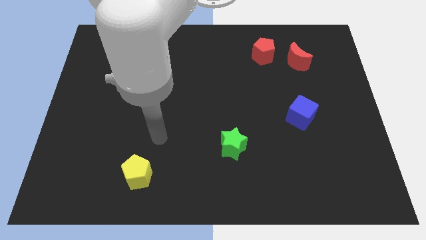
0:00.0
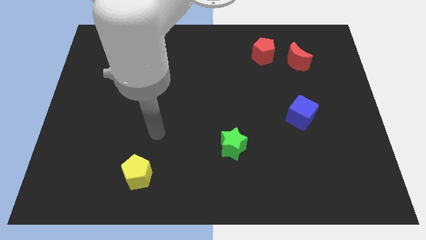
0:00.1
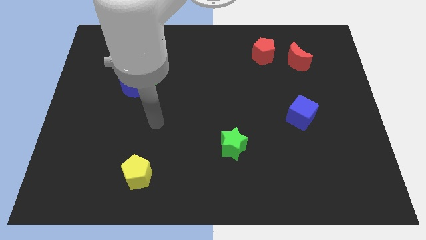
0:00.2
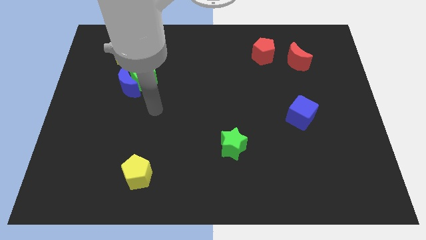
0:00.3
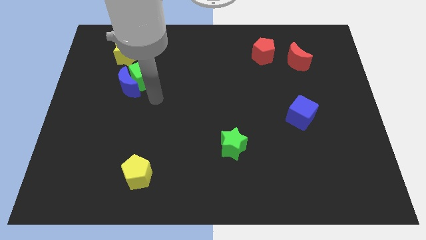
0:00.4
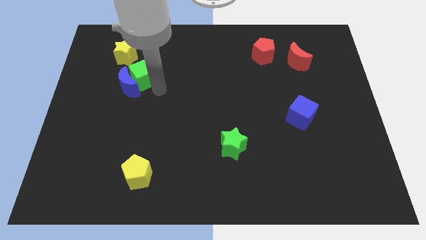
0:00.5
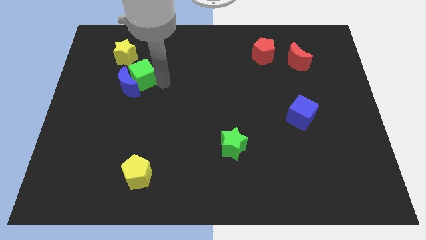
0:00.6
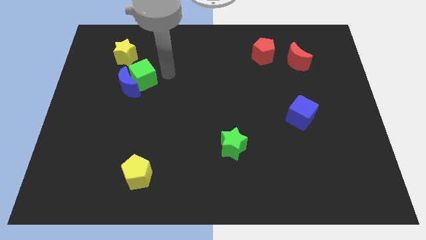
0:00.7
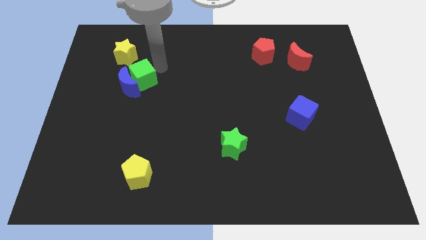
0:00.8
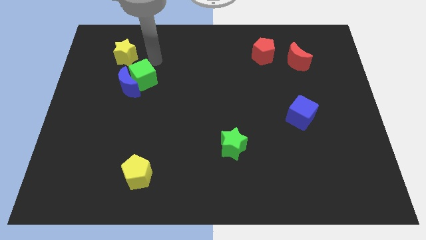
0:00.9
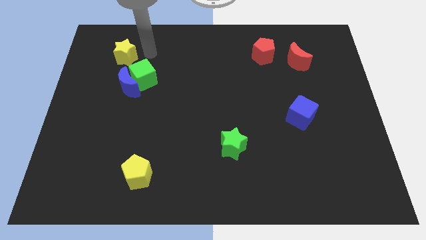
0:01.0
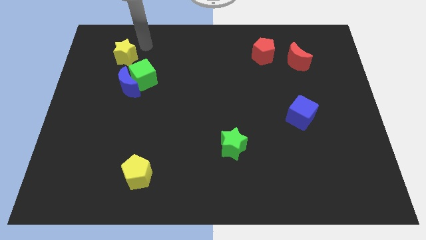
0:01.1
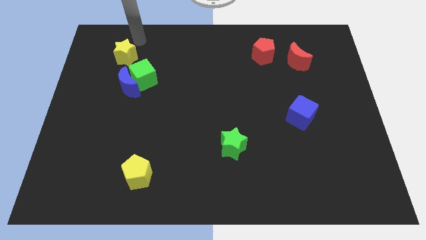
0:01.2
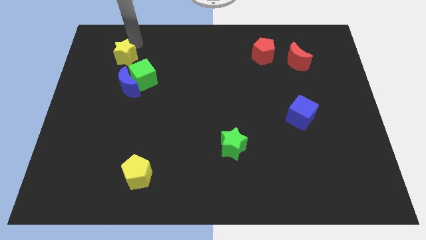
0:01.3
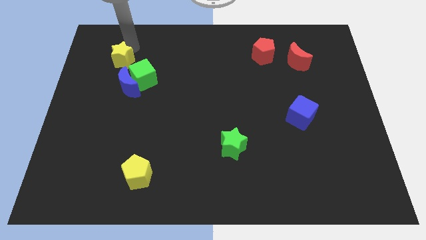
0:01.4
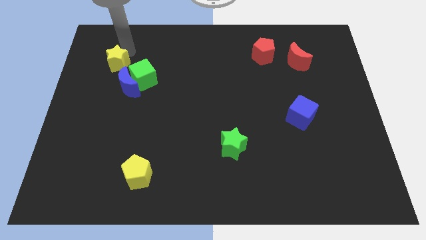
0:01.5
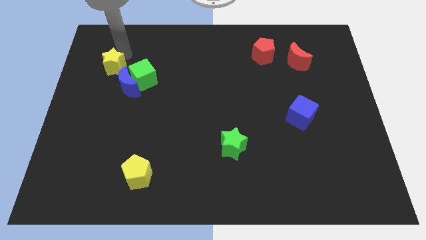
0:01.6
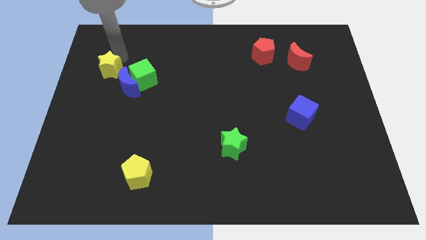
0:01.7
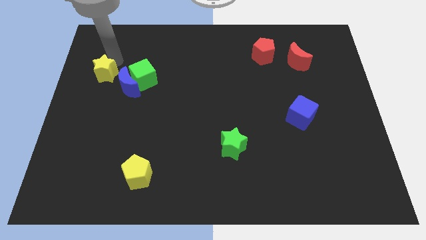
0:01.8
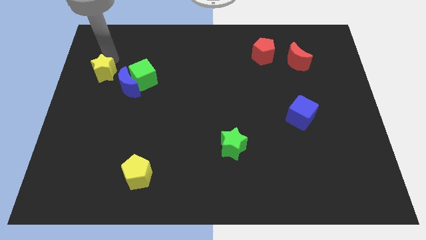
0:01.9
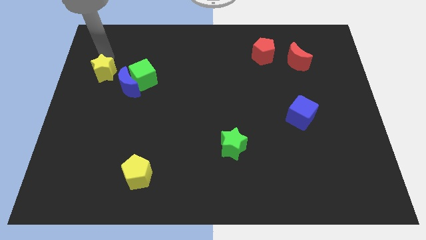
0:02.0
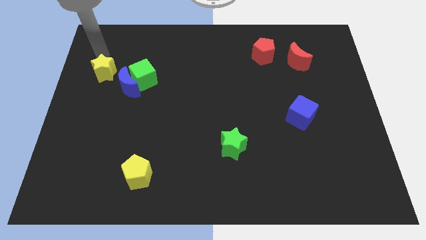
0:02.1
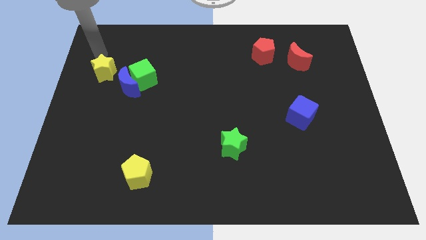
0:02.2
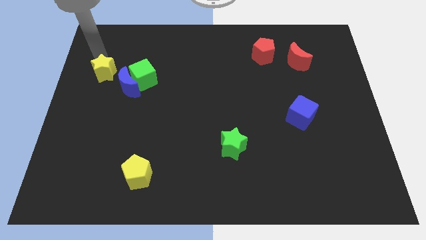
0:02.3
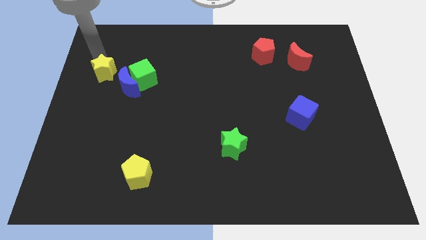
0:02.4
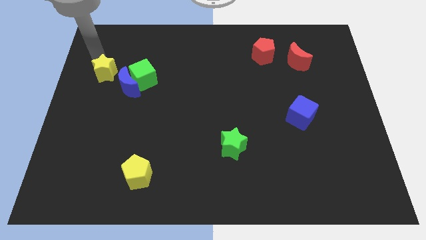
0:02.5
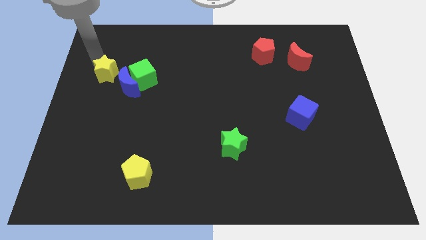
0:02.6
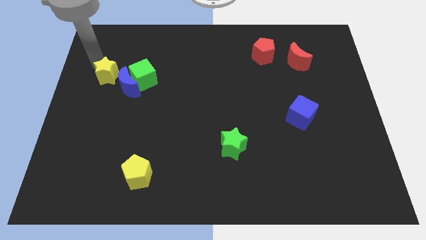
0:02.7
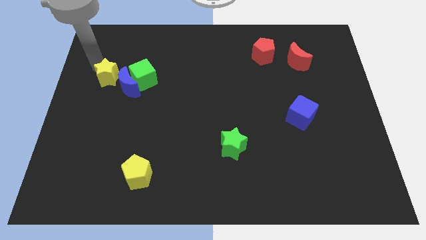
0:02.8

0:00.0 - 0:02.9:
slide the yellow star downwards a little

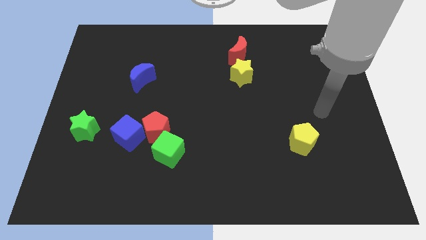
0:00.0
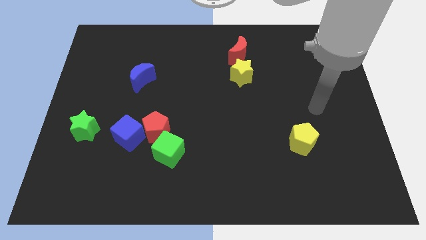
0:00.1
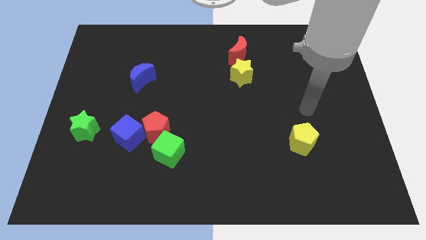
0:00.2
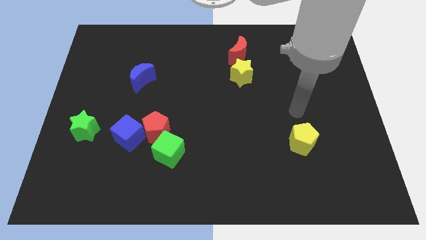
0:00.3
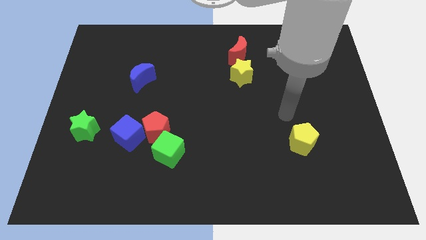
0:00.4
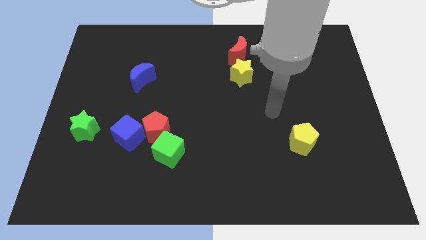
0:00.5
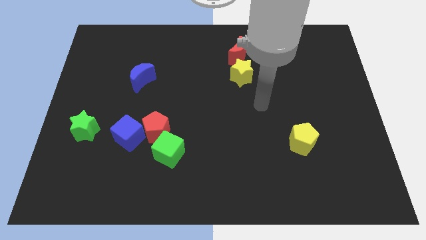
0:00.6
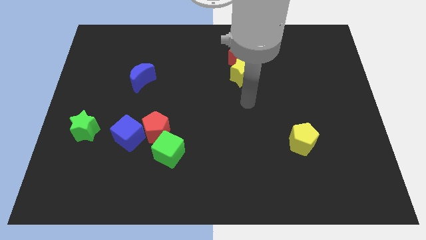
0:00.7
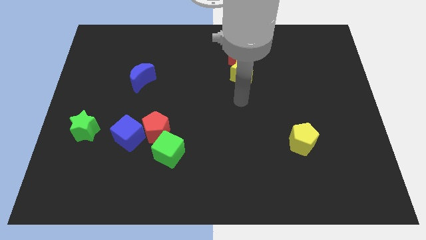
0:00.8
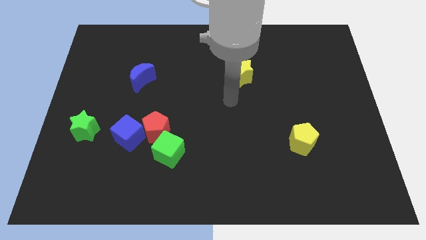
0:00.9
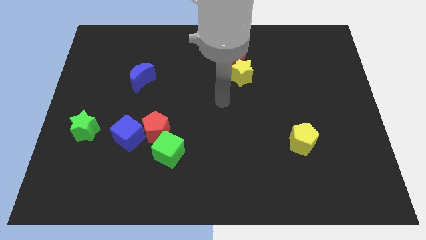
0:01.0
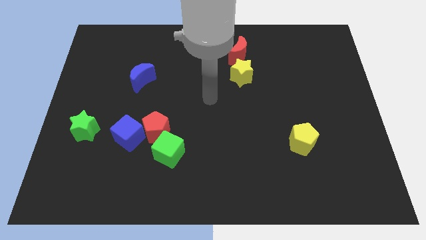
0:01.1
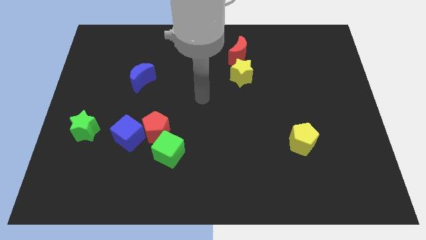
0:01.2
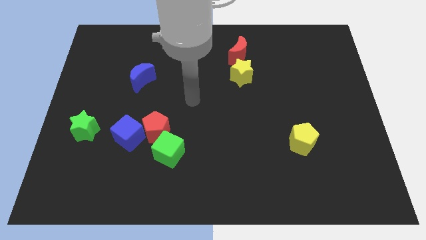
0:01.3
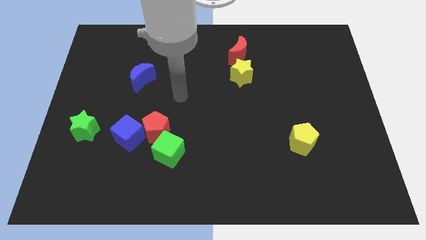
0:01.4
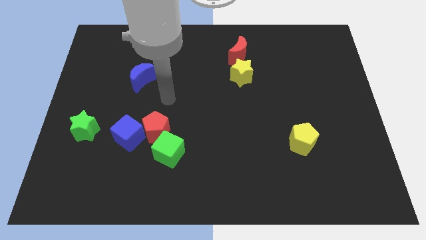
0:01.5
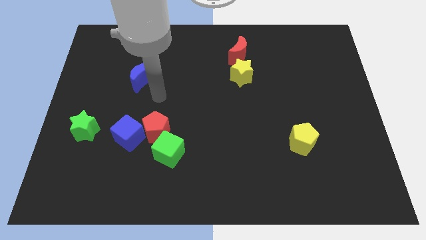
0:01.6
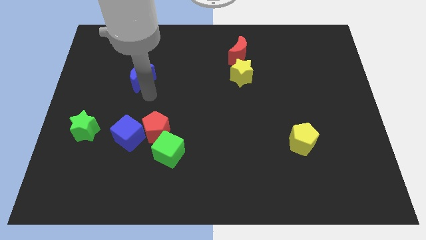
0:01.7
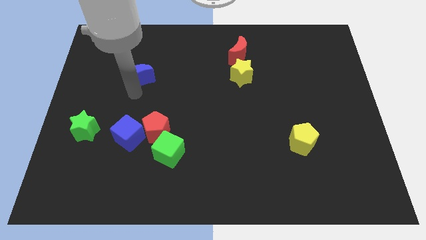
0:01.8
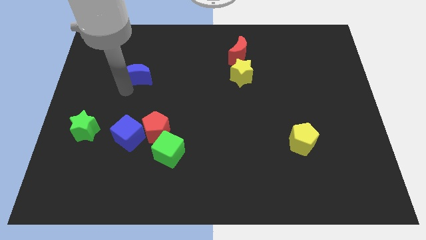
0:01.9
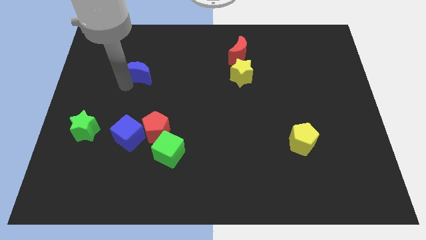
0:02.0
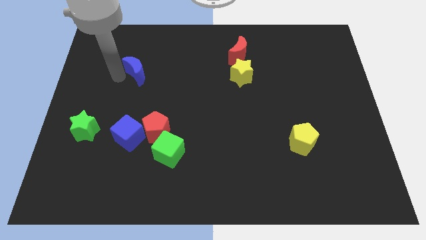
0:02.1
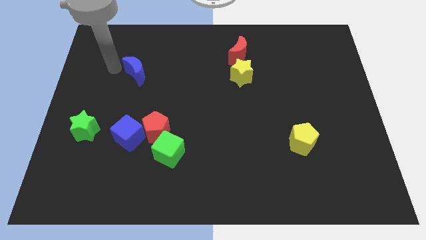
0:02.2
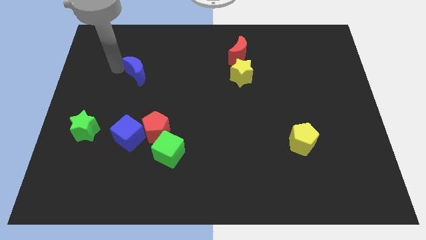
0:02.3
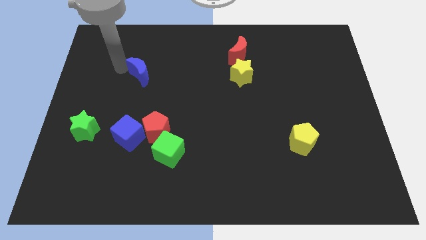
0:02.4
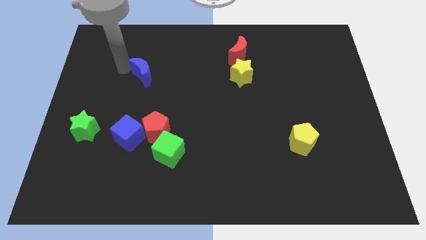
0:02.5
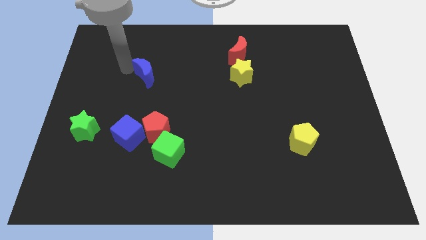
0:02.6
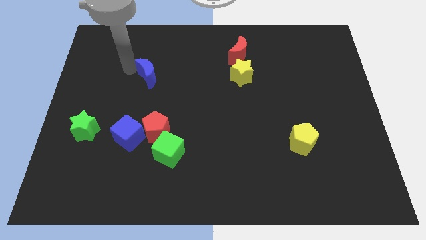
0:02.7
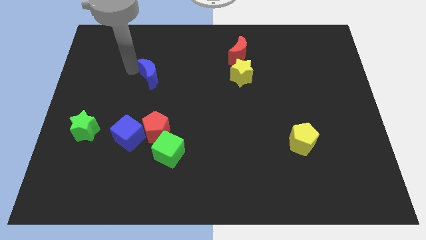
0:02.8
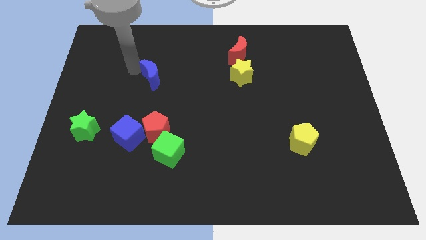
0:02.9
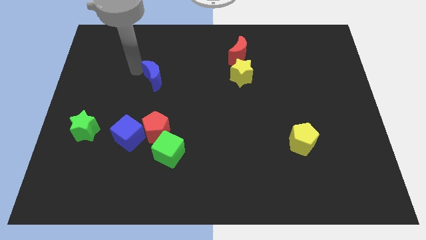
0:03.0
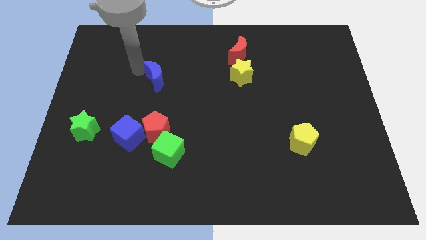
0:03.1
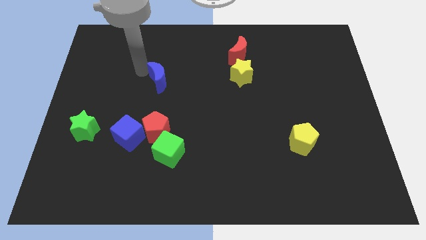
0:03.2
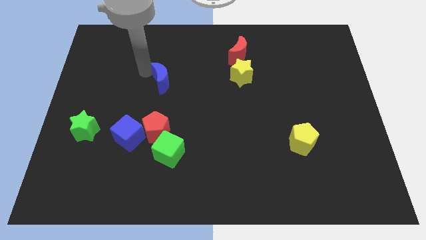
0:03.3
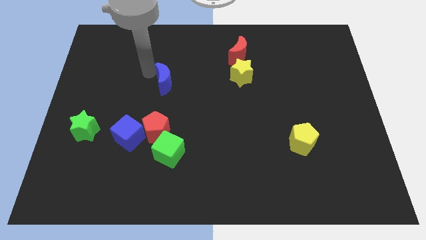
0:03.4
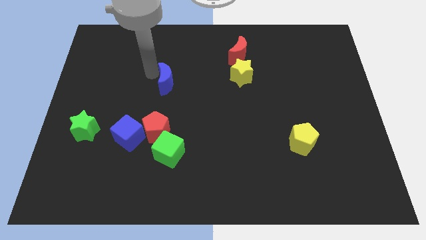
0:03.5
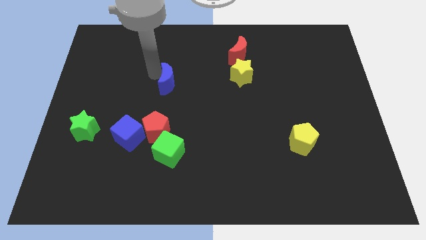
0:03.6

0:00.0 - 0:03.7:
slightly slide the blue moon to the right

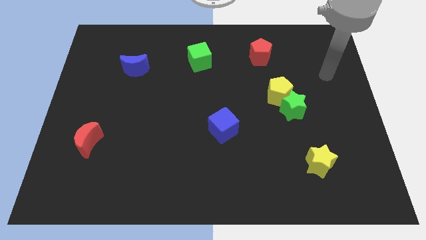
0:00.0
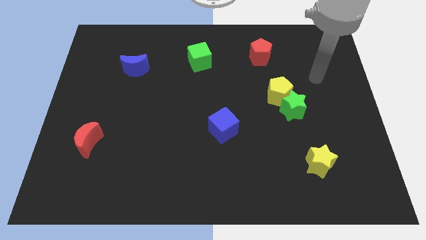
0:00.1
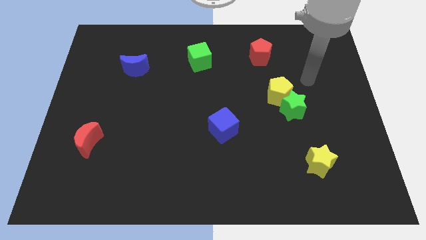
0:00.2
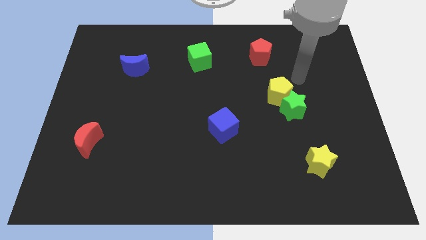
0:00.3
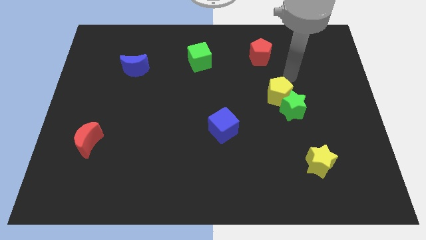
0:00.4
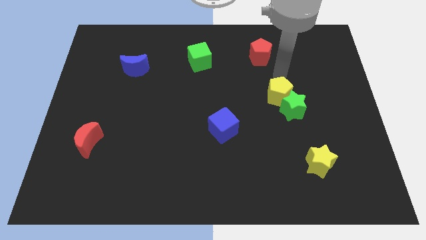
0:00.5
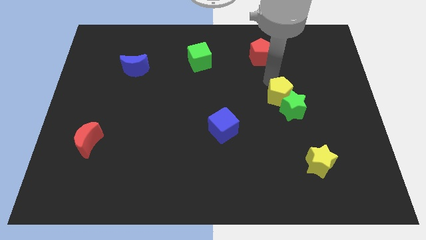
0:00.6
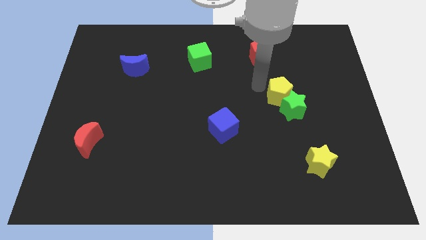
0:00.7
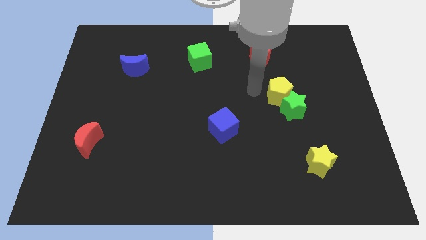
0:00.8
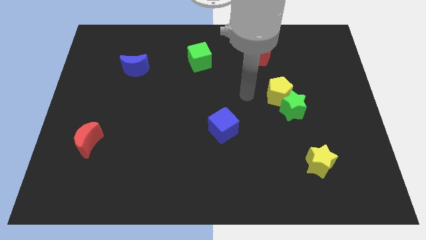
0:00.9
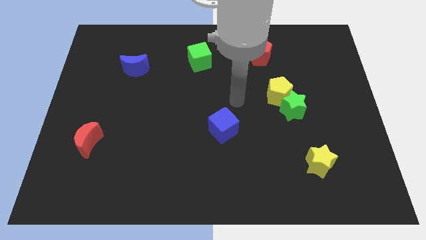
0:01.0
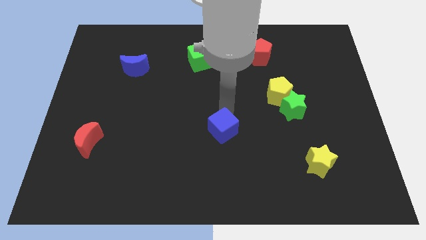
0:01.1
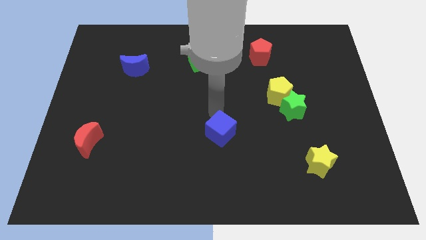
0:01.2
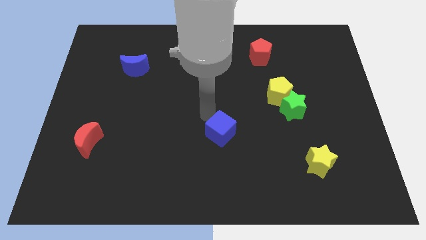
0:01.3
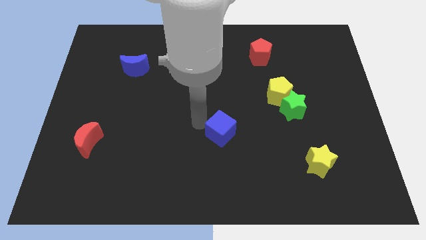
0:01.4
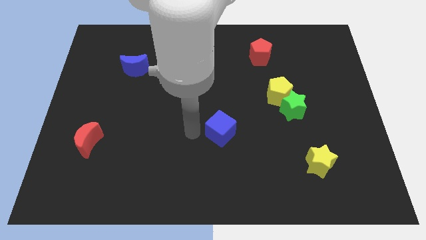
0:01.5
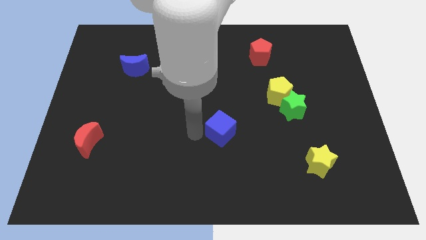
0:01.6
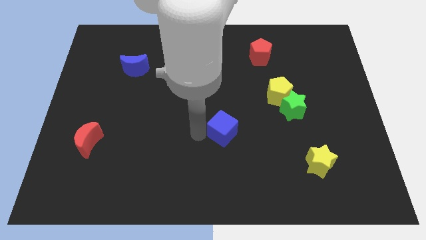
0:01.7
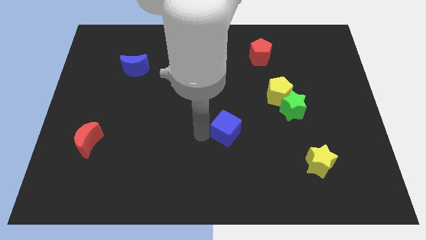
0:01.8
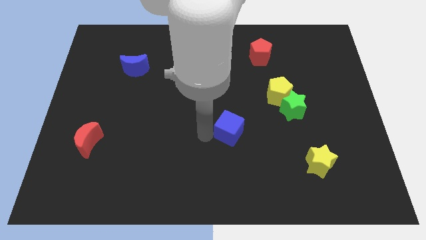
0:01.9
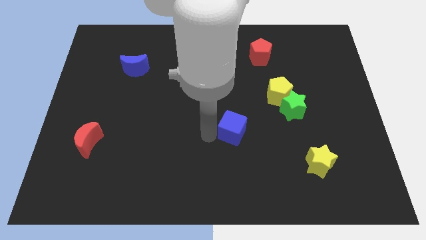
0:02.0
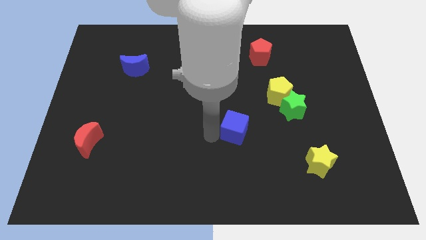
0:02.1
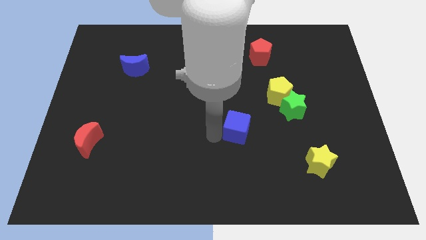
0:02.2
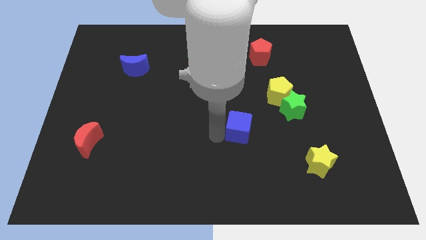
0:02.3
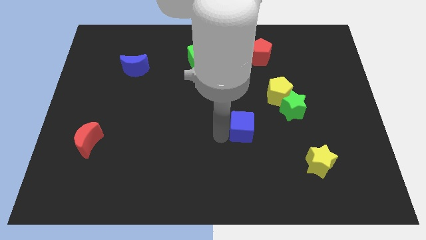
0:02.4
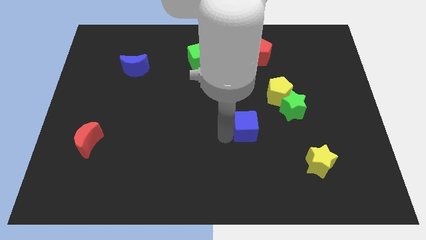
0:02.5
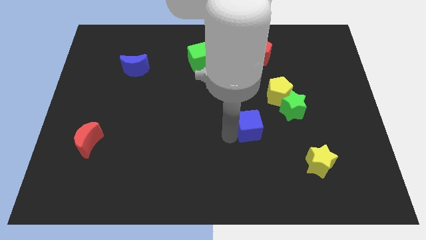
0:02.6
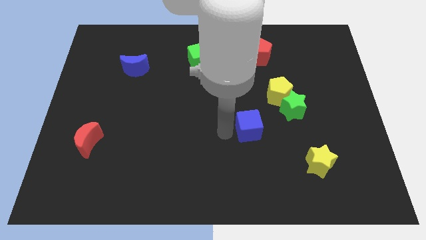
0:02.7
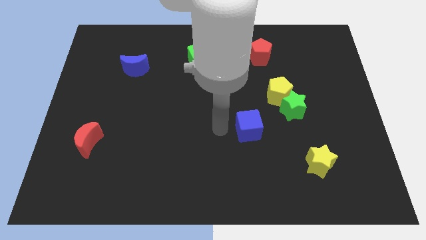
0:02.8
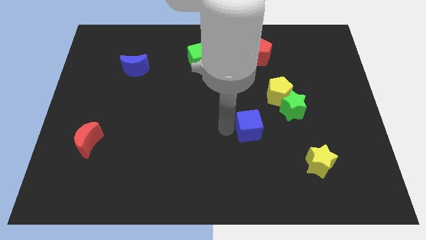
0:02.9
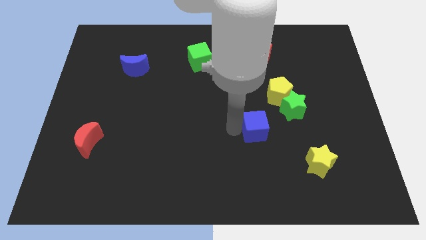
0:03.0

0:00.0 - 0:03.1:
slide the blue cube right a little bit
